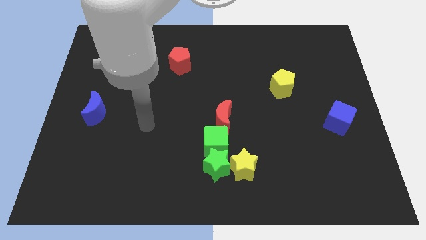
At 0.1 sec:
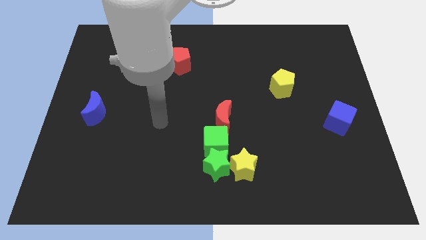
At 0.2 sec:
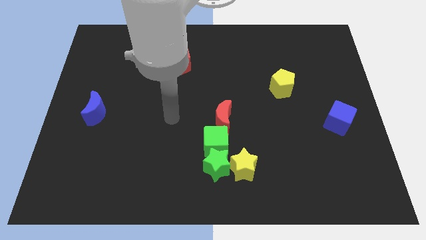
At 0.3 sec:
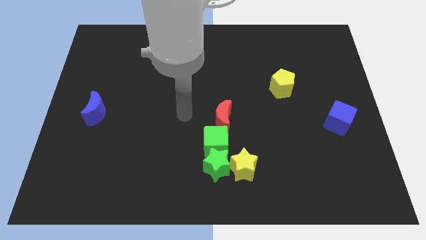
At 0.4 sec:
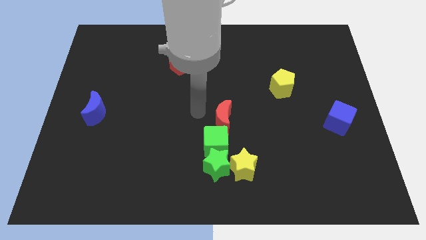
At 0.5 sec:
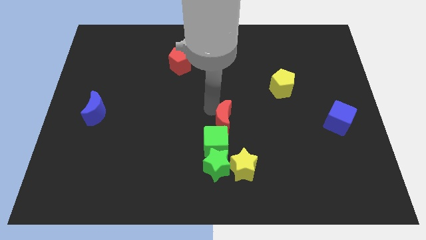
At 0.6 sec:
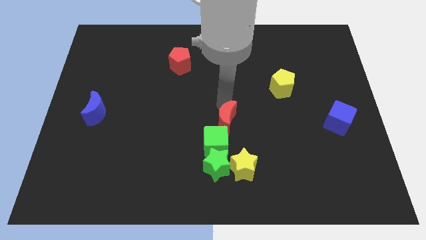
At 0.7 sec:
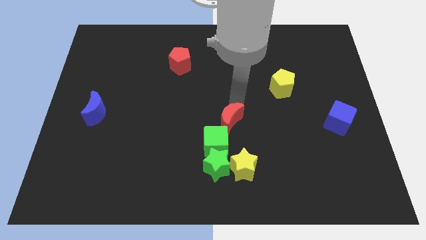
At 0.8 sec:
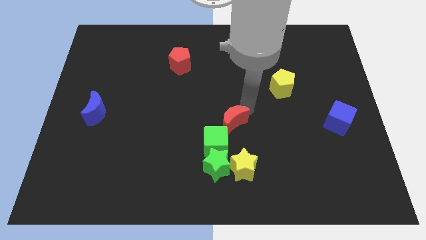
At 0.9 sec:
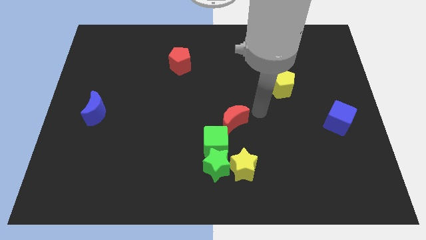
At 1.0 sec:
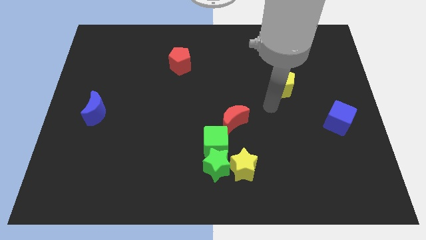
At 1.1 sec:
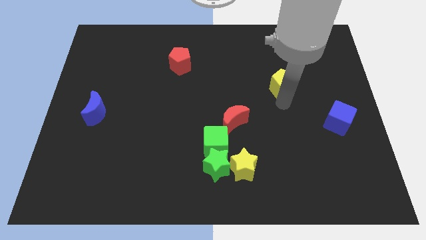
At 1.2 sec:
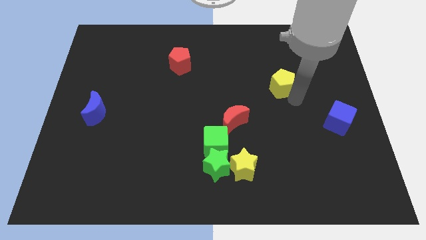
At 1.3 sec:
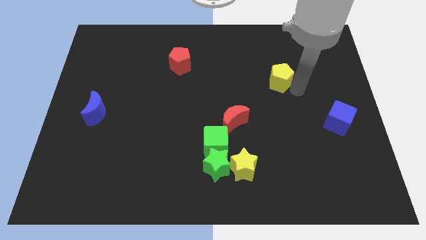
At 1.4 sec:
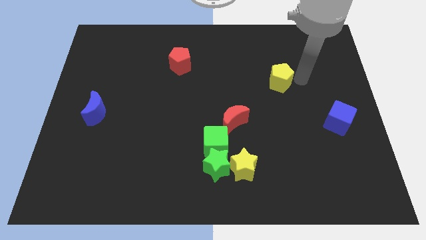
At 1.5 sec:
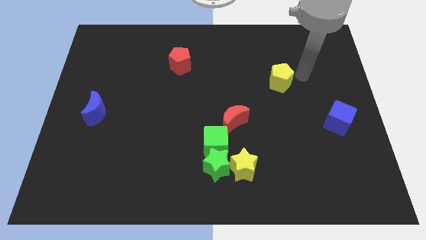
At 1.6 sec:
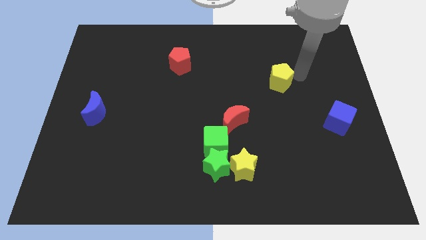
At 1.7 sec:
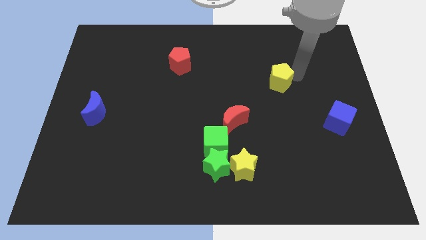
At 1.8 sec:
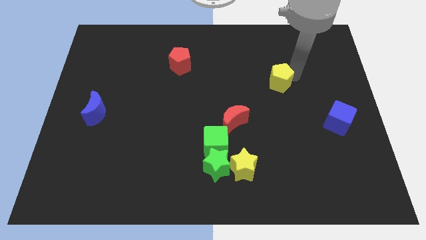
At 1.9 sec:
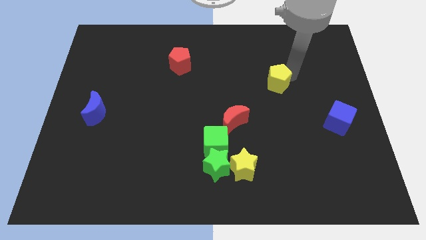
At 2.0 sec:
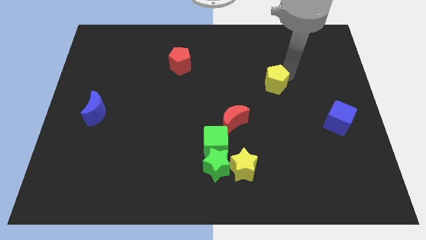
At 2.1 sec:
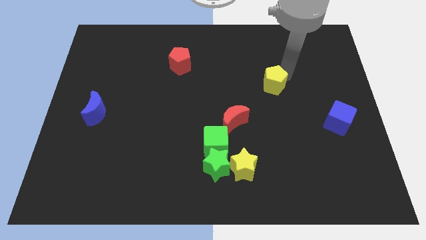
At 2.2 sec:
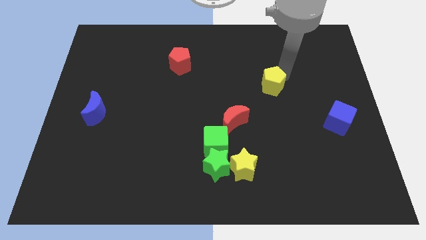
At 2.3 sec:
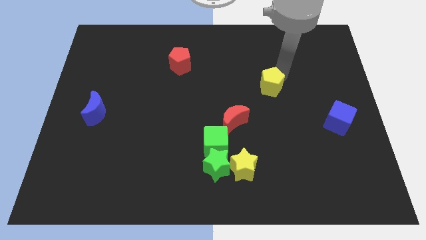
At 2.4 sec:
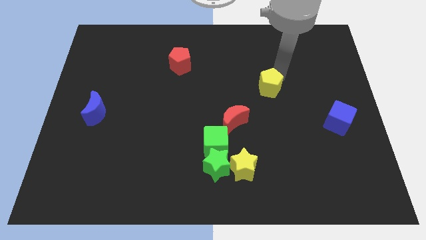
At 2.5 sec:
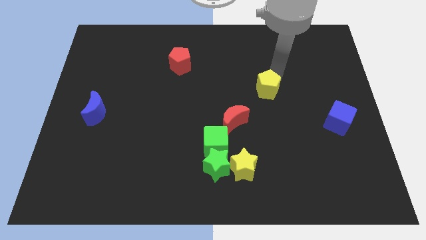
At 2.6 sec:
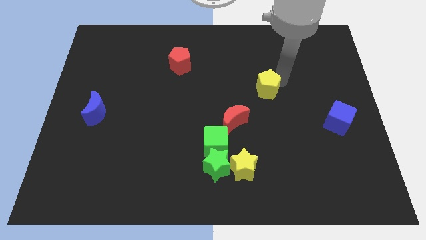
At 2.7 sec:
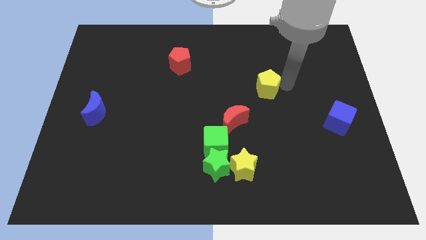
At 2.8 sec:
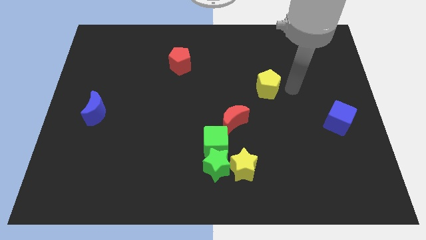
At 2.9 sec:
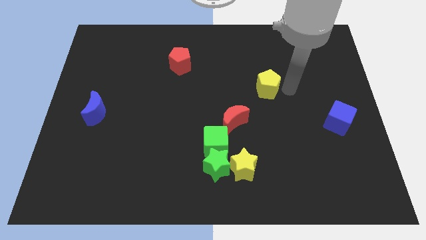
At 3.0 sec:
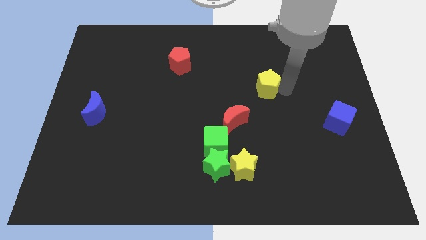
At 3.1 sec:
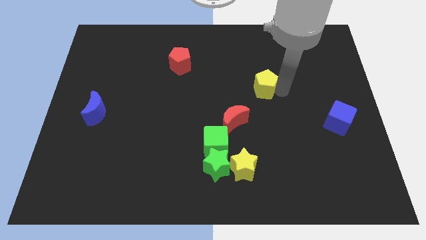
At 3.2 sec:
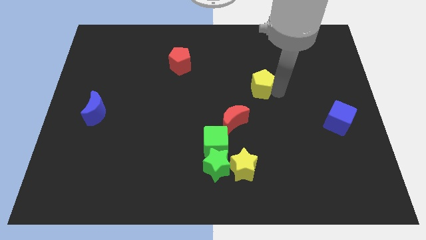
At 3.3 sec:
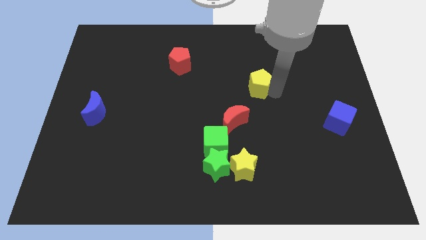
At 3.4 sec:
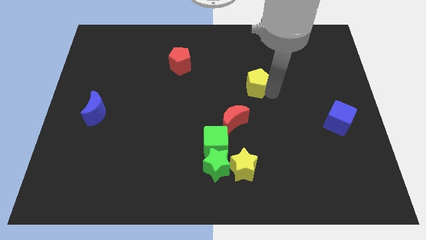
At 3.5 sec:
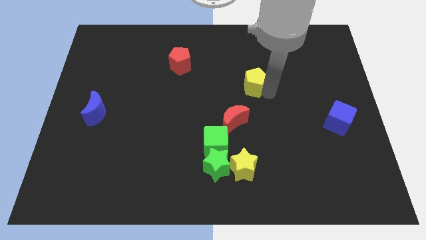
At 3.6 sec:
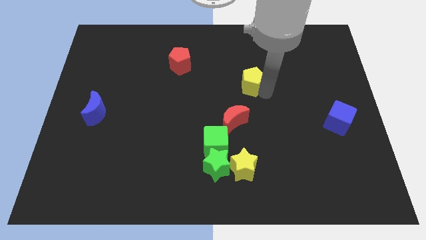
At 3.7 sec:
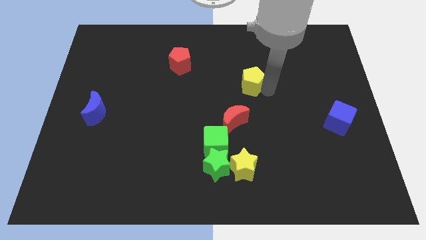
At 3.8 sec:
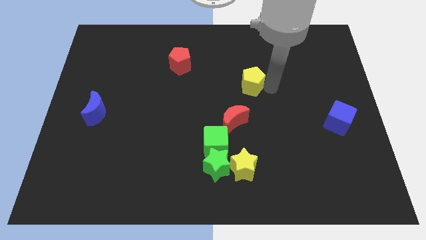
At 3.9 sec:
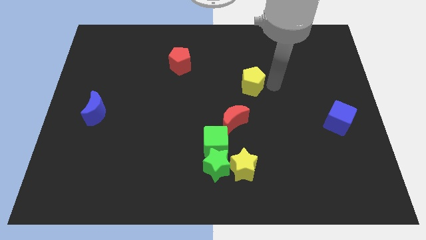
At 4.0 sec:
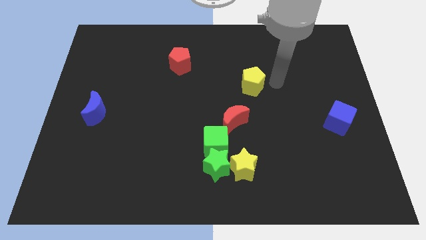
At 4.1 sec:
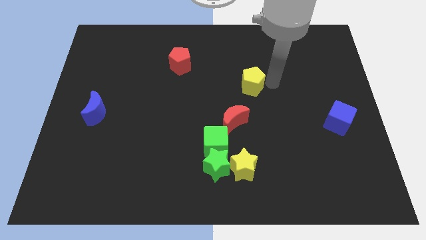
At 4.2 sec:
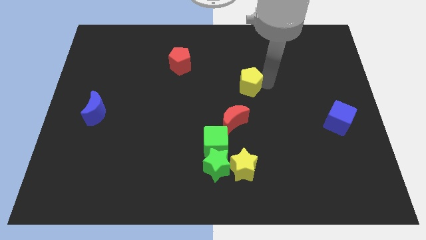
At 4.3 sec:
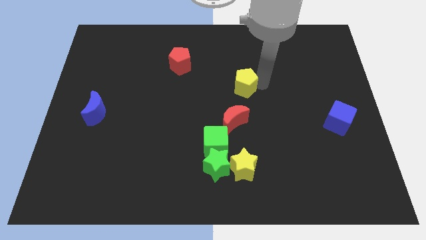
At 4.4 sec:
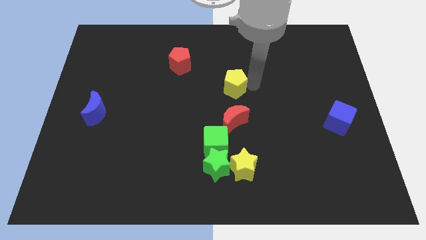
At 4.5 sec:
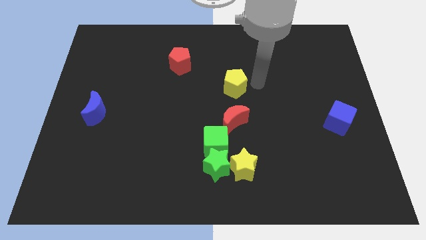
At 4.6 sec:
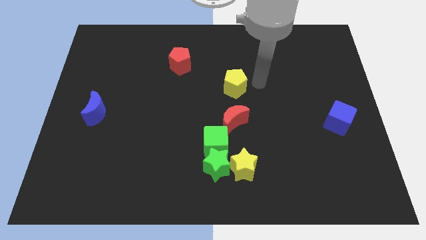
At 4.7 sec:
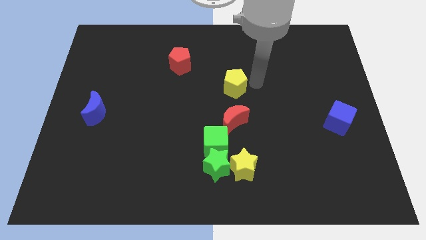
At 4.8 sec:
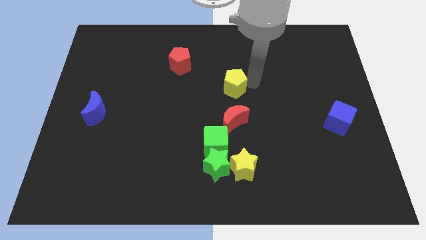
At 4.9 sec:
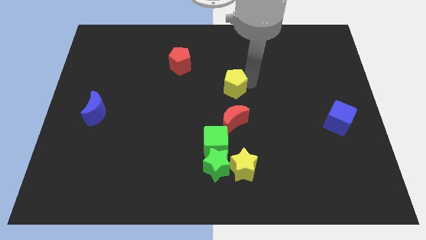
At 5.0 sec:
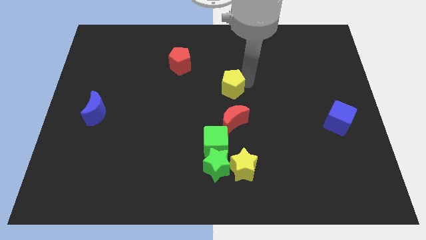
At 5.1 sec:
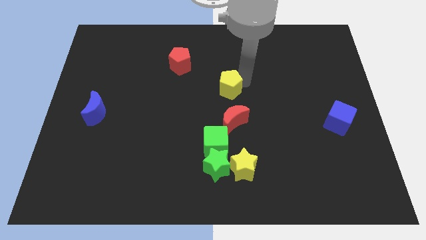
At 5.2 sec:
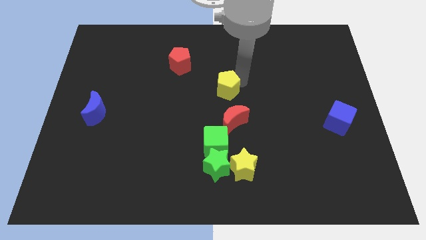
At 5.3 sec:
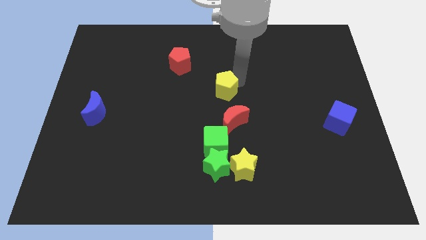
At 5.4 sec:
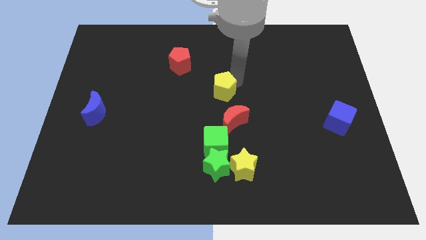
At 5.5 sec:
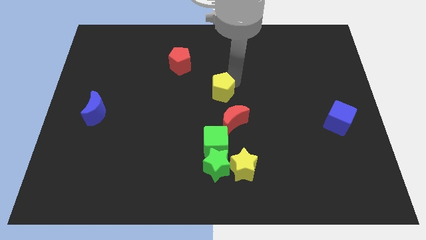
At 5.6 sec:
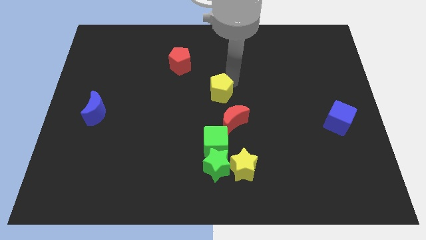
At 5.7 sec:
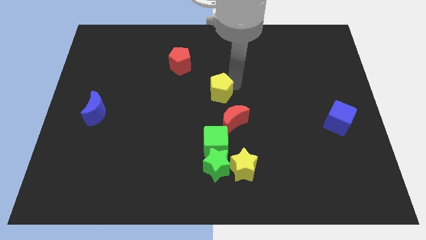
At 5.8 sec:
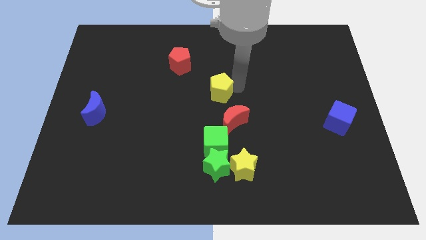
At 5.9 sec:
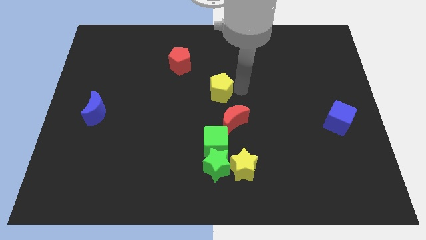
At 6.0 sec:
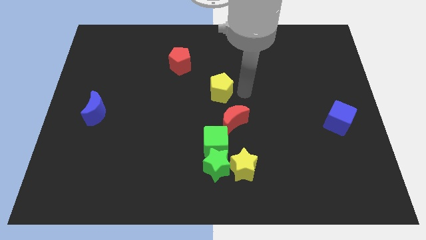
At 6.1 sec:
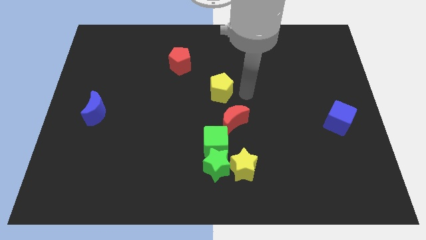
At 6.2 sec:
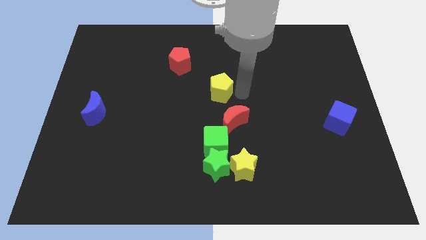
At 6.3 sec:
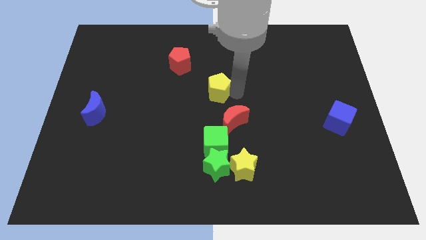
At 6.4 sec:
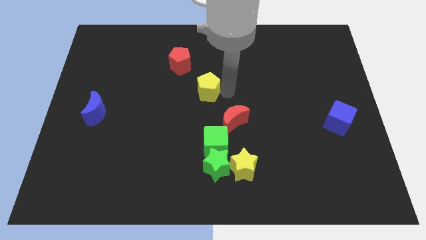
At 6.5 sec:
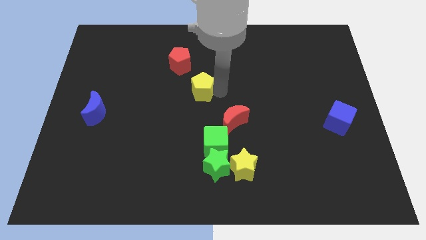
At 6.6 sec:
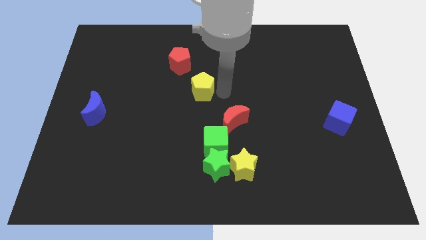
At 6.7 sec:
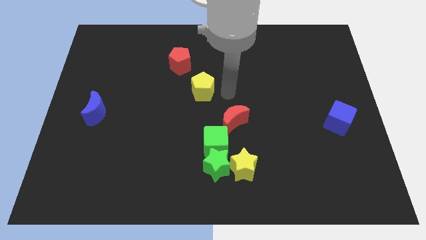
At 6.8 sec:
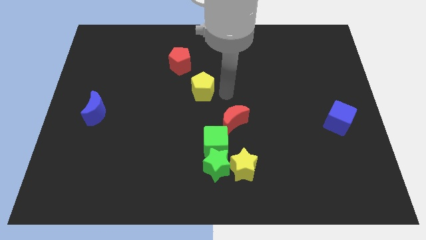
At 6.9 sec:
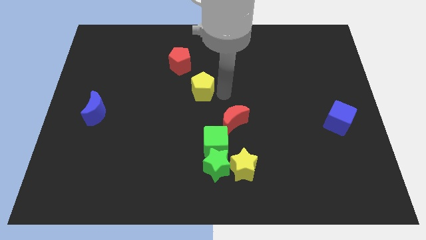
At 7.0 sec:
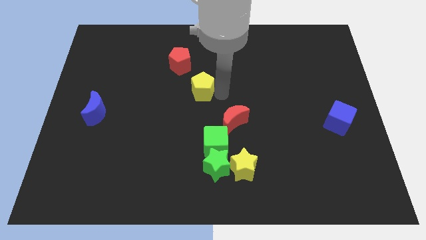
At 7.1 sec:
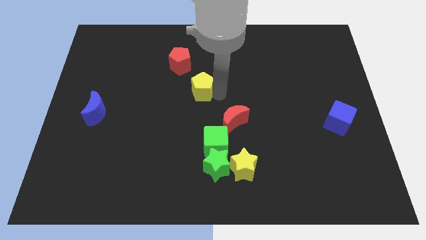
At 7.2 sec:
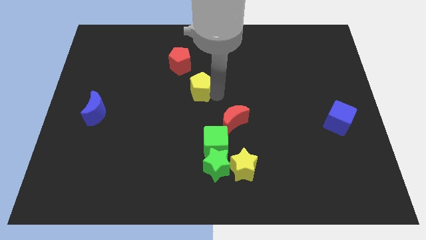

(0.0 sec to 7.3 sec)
push the yellow pentagon to the left

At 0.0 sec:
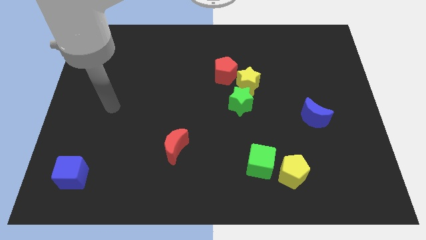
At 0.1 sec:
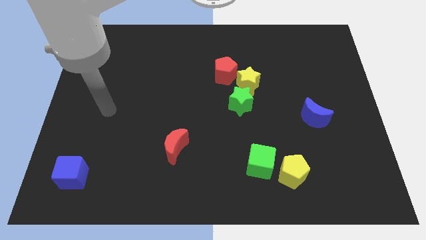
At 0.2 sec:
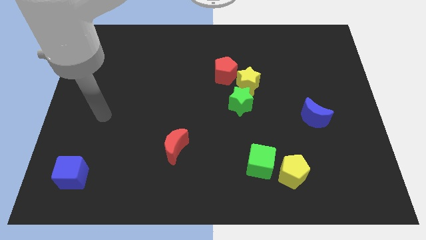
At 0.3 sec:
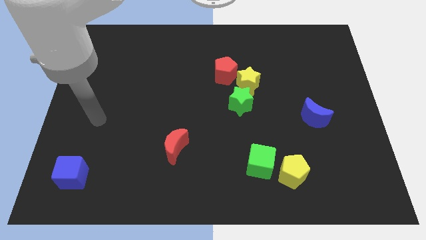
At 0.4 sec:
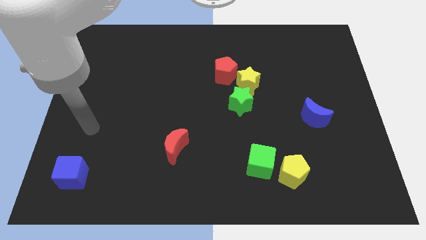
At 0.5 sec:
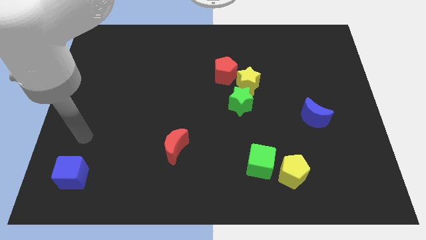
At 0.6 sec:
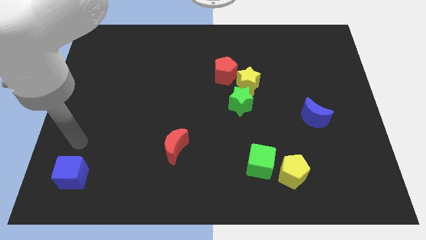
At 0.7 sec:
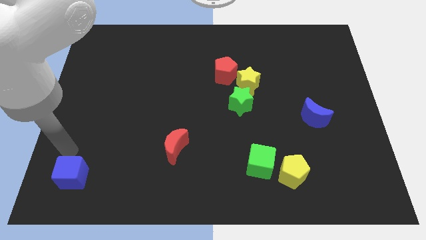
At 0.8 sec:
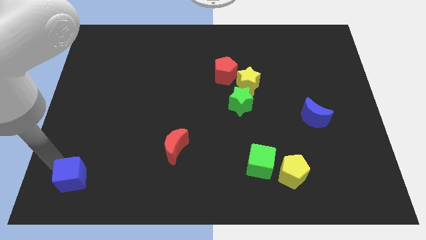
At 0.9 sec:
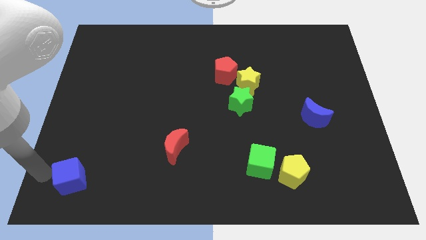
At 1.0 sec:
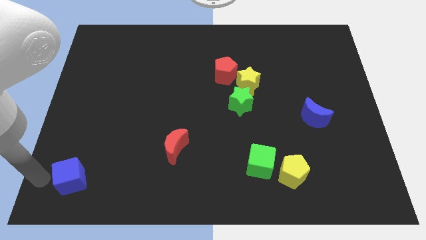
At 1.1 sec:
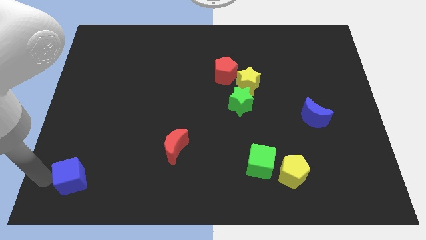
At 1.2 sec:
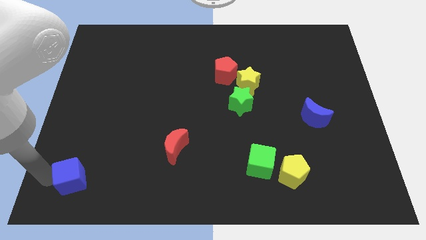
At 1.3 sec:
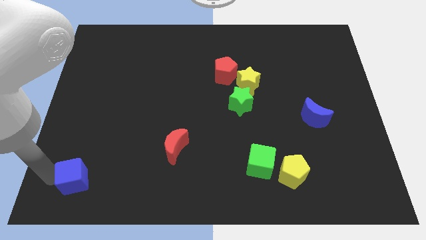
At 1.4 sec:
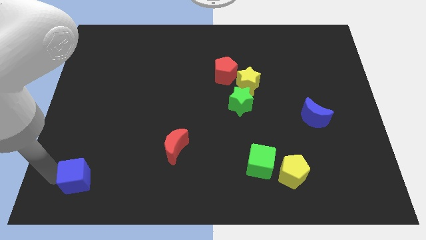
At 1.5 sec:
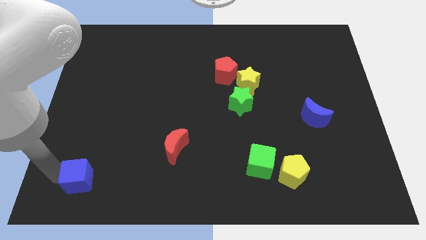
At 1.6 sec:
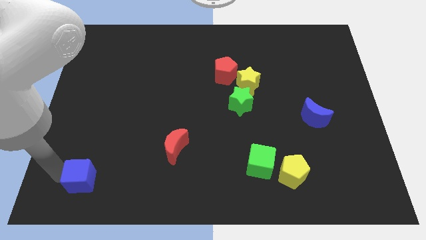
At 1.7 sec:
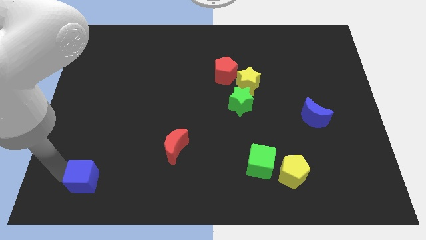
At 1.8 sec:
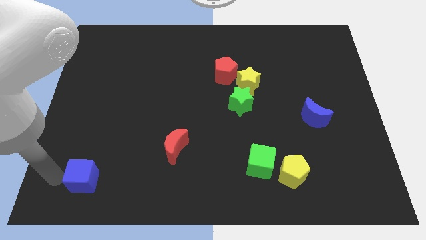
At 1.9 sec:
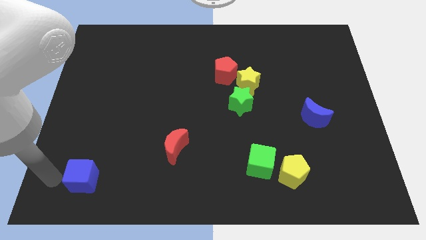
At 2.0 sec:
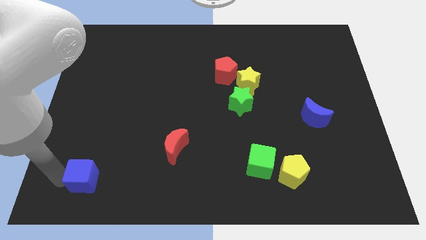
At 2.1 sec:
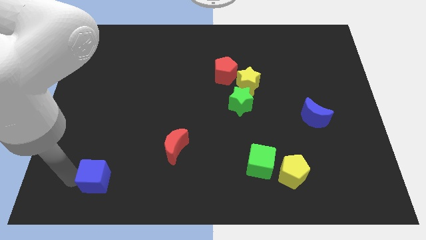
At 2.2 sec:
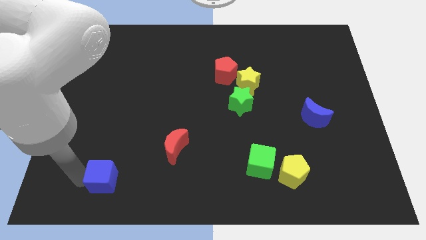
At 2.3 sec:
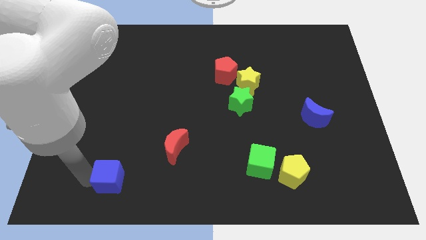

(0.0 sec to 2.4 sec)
slightly push the blue cube right
